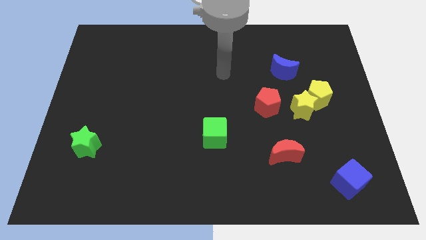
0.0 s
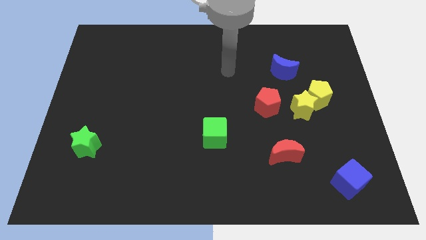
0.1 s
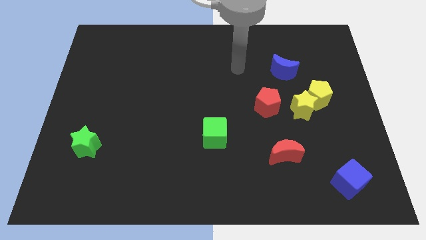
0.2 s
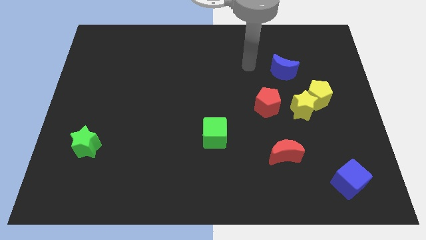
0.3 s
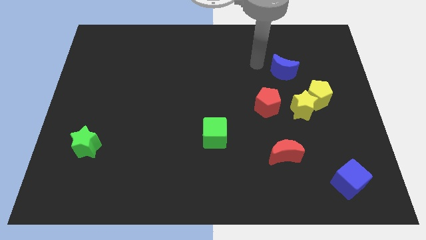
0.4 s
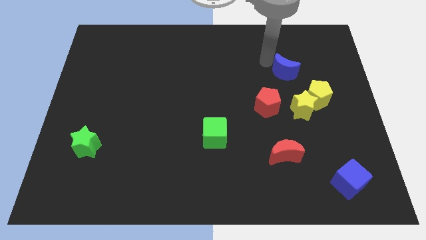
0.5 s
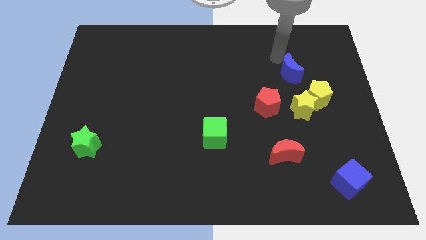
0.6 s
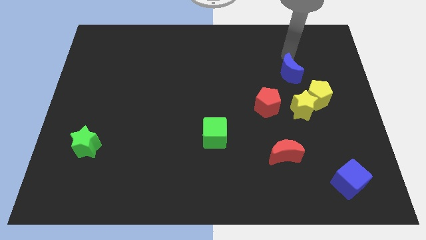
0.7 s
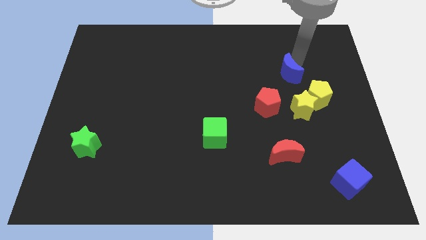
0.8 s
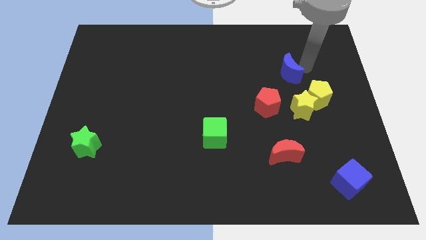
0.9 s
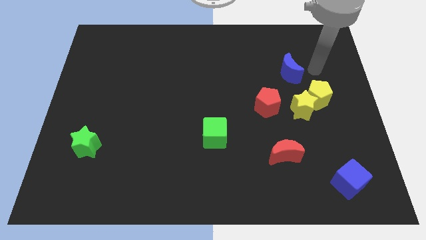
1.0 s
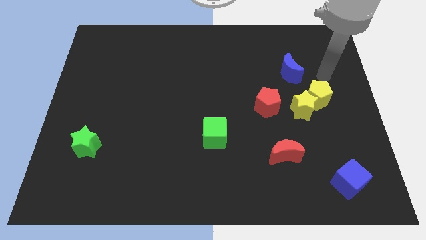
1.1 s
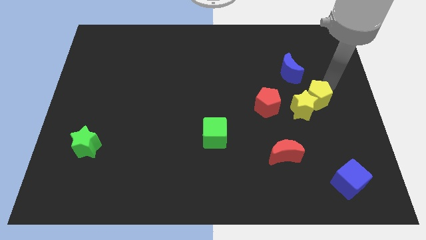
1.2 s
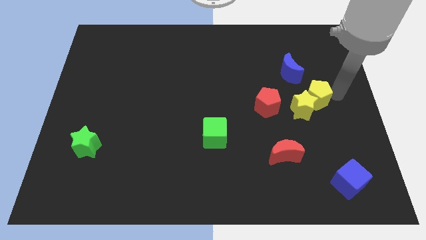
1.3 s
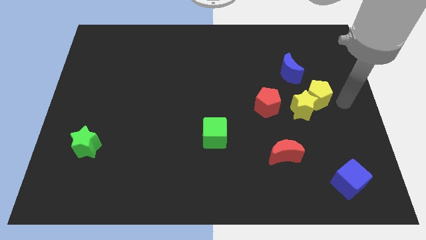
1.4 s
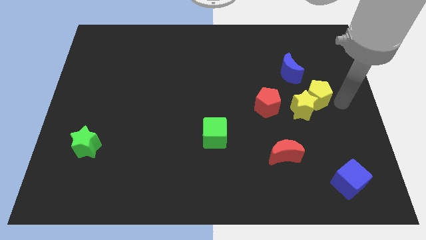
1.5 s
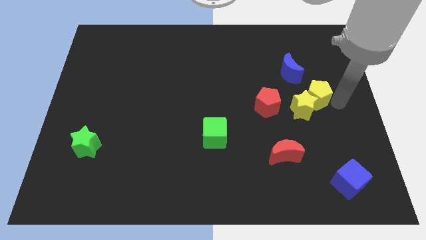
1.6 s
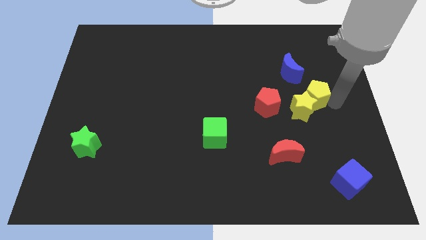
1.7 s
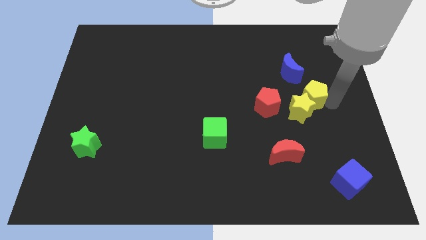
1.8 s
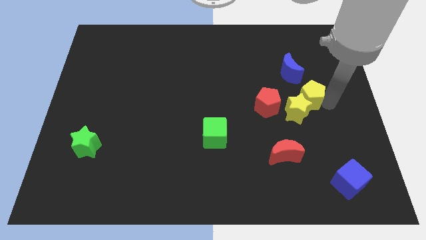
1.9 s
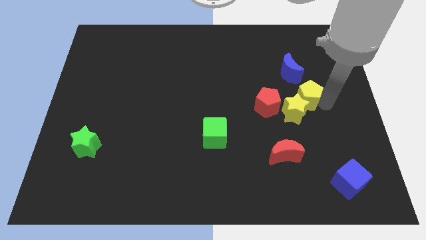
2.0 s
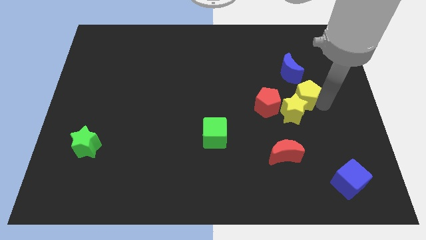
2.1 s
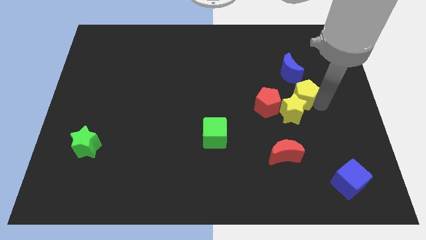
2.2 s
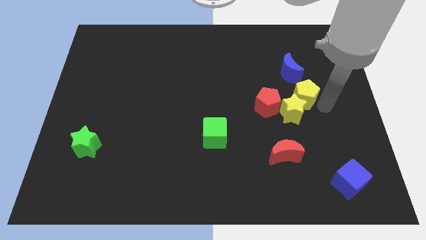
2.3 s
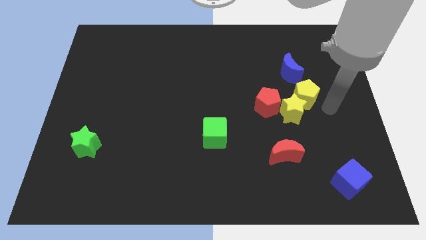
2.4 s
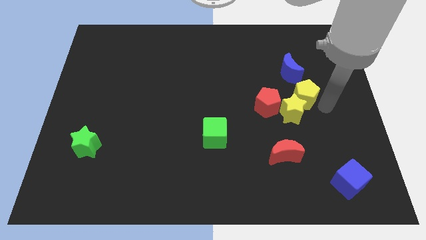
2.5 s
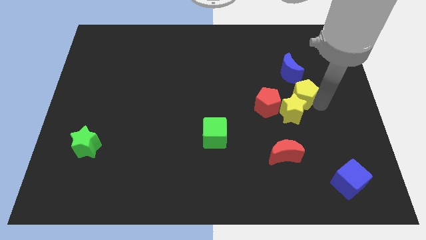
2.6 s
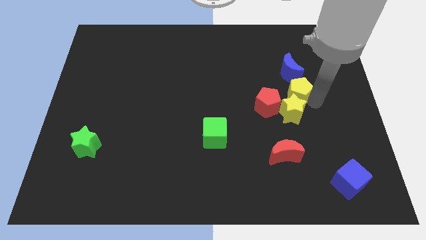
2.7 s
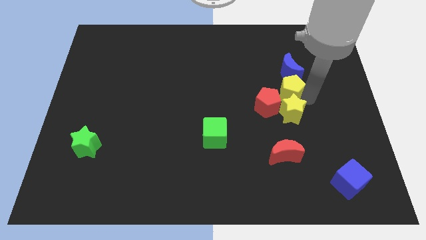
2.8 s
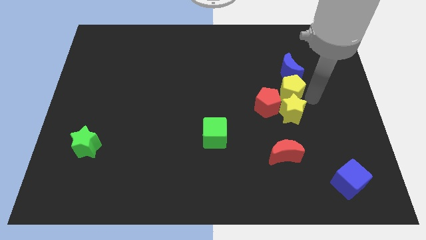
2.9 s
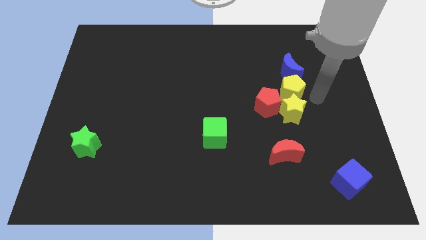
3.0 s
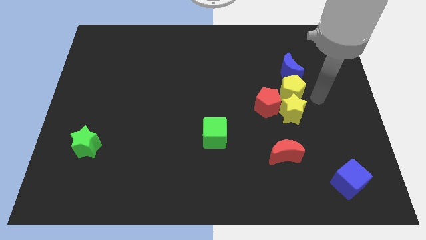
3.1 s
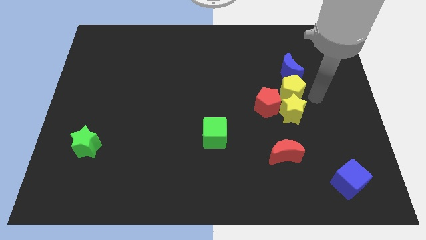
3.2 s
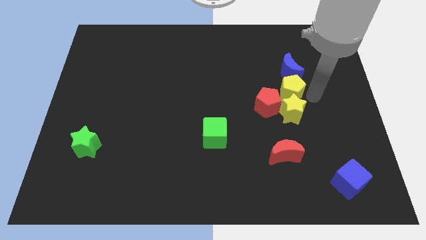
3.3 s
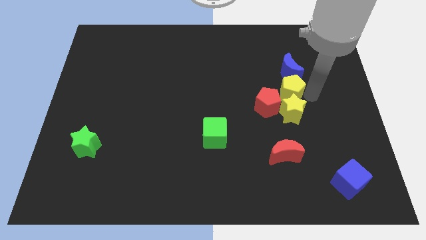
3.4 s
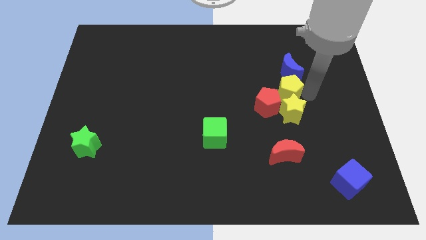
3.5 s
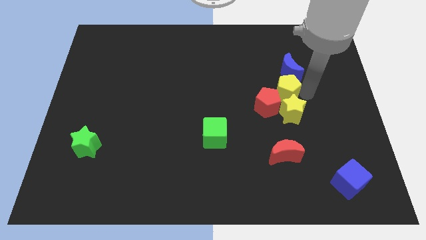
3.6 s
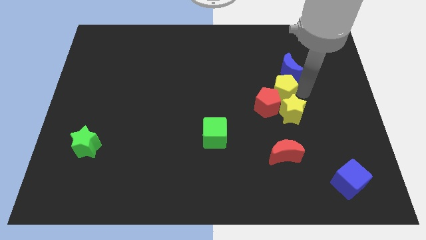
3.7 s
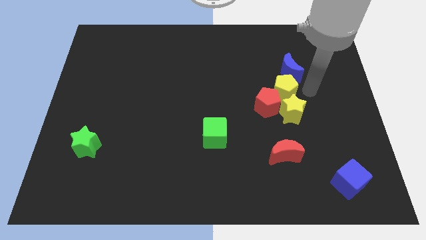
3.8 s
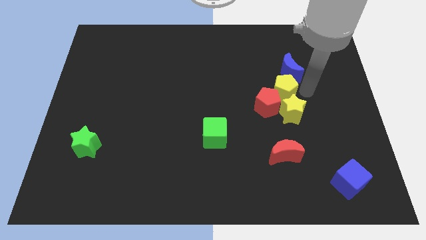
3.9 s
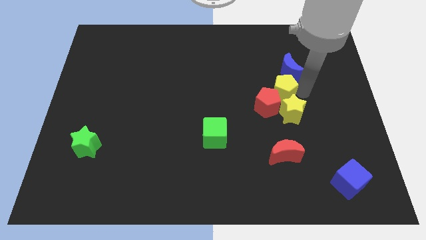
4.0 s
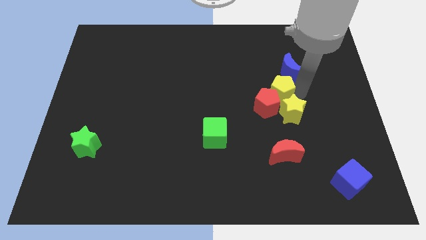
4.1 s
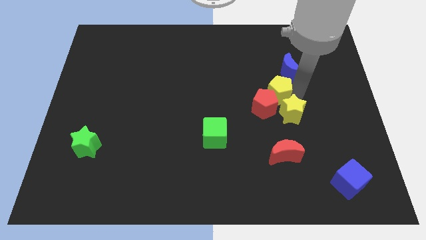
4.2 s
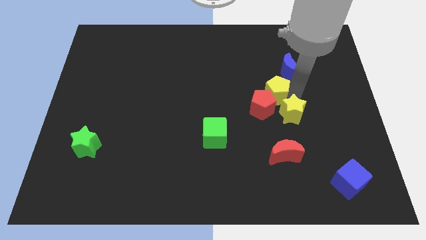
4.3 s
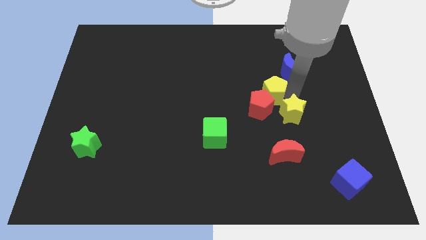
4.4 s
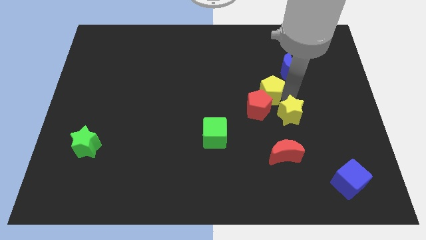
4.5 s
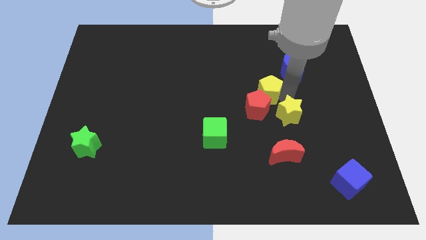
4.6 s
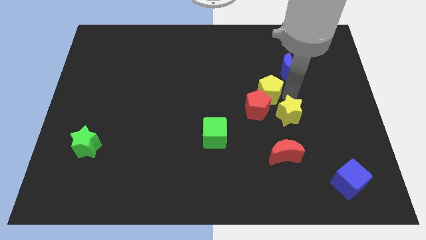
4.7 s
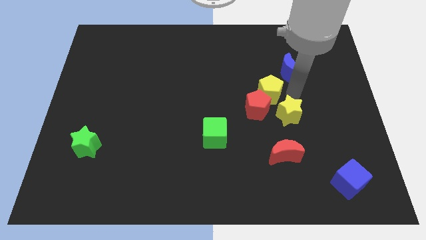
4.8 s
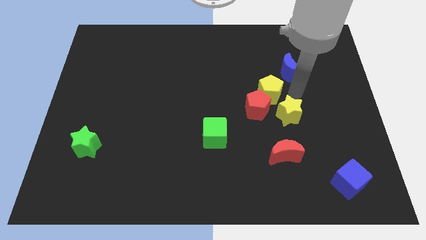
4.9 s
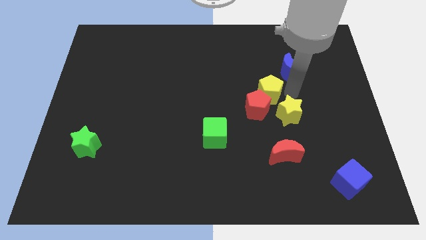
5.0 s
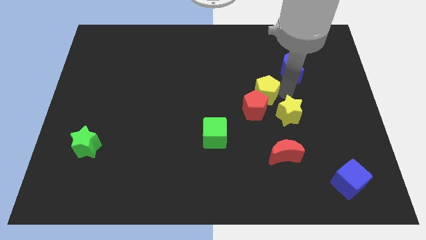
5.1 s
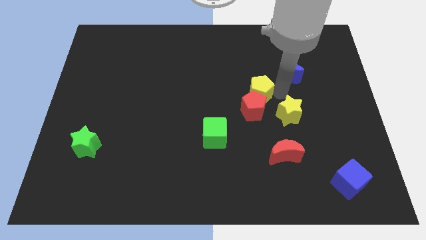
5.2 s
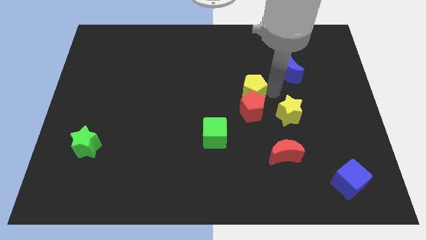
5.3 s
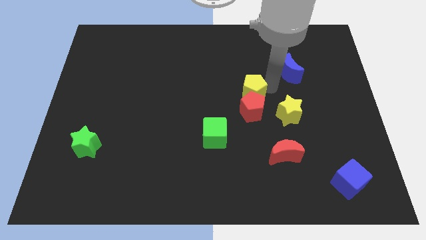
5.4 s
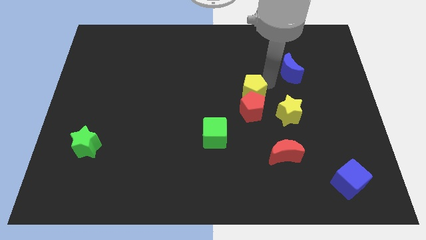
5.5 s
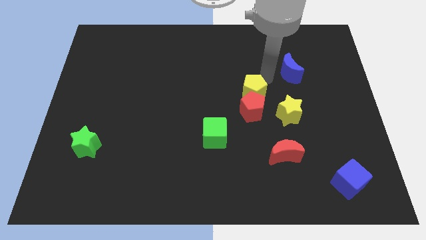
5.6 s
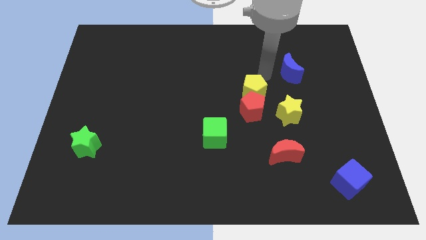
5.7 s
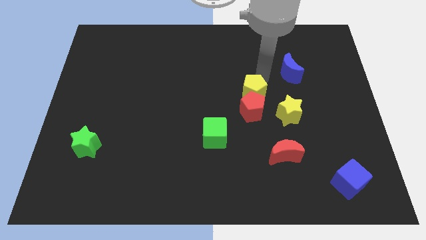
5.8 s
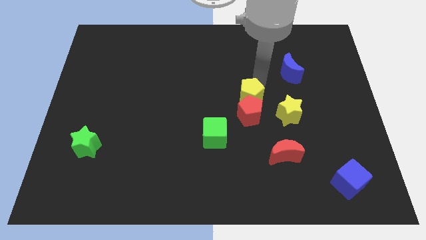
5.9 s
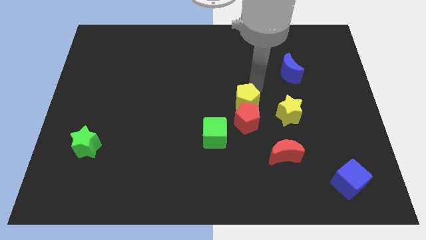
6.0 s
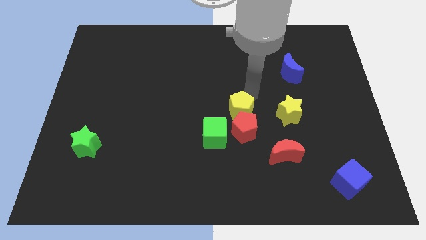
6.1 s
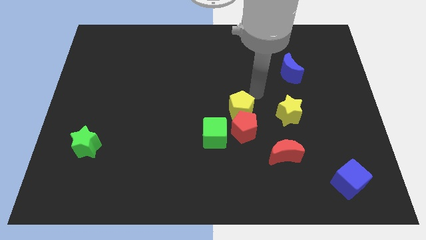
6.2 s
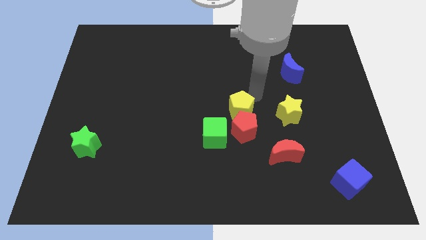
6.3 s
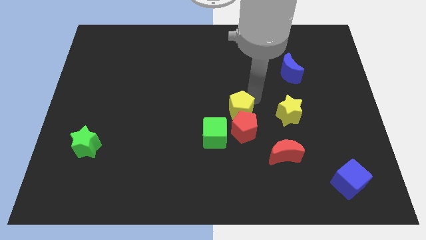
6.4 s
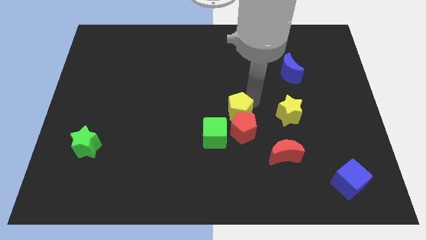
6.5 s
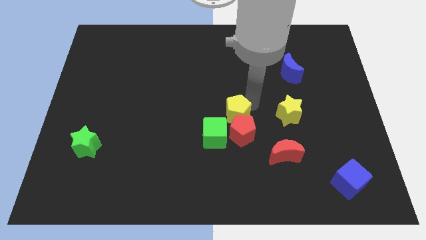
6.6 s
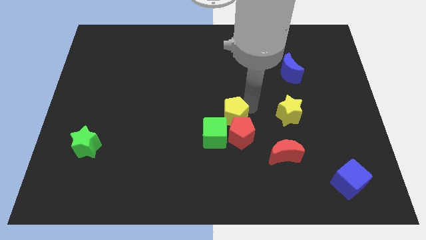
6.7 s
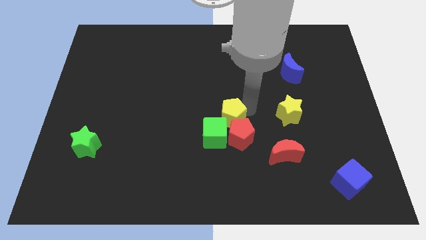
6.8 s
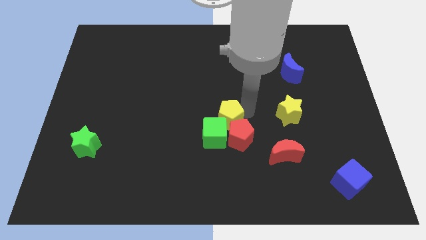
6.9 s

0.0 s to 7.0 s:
push the yellow pentagon close to the green cube

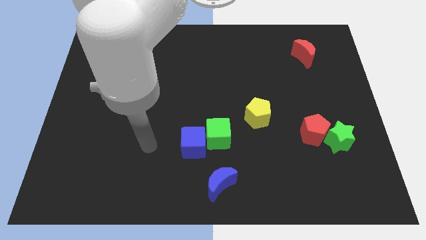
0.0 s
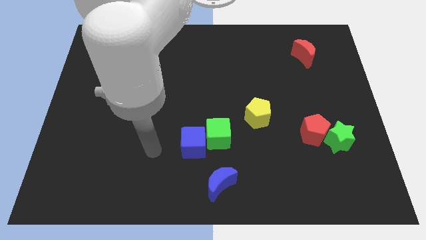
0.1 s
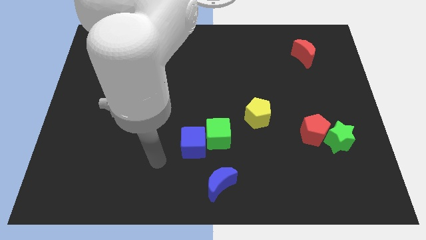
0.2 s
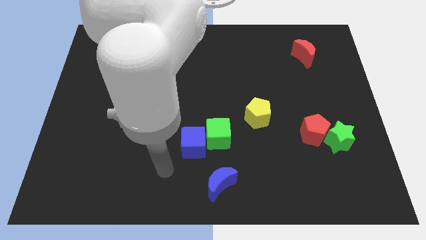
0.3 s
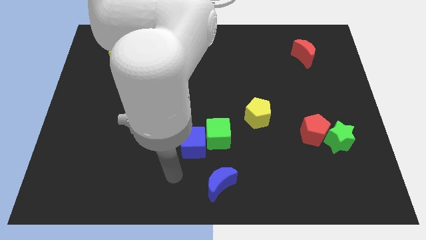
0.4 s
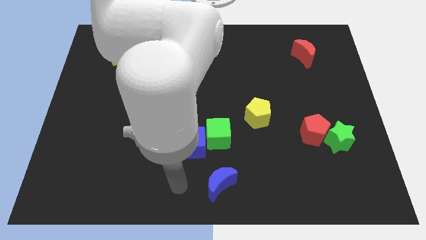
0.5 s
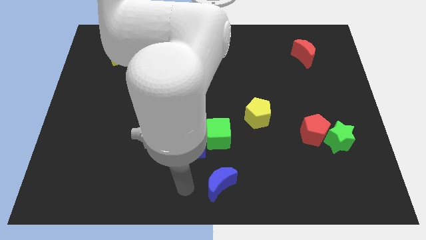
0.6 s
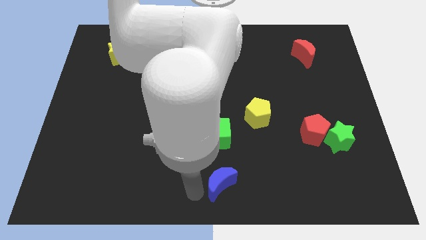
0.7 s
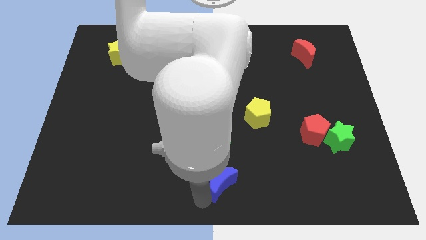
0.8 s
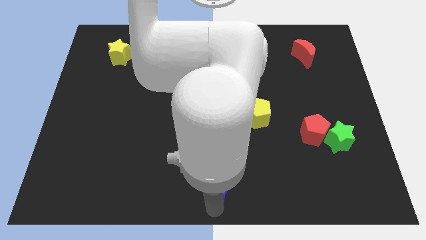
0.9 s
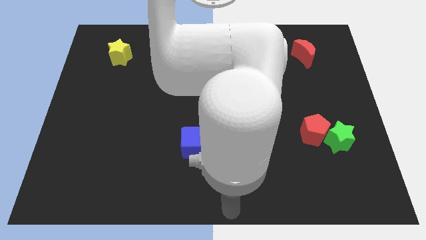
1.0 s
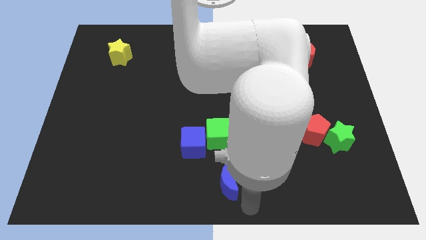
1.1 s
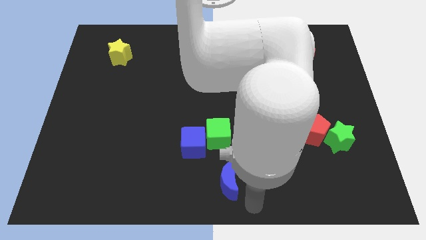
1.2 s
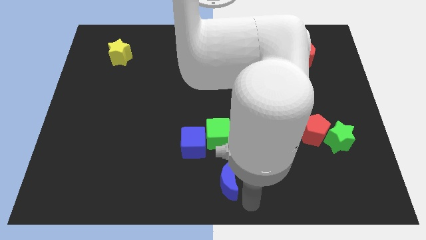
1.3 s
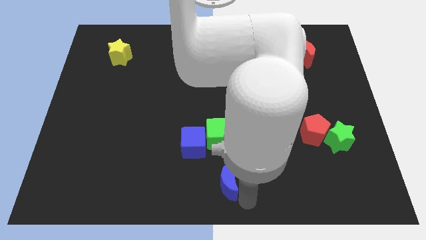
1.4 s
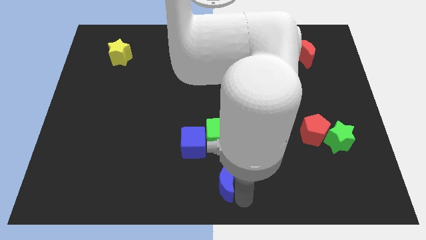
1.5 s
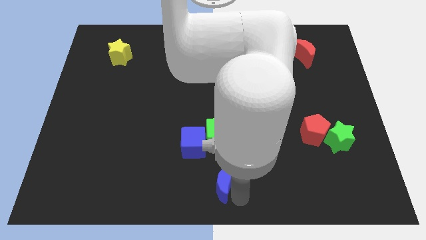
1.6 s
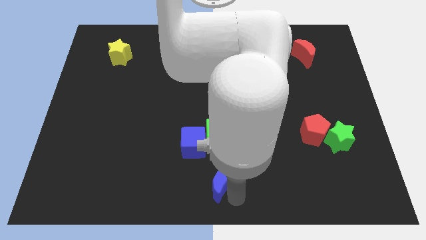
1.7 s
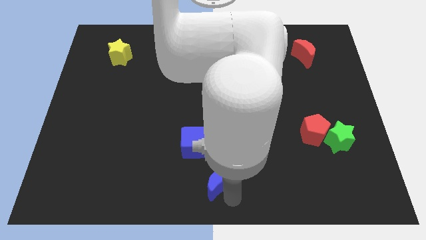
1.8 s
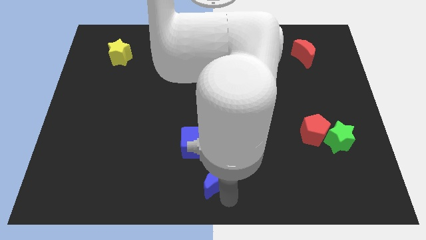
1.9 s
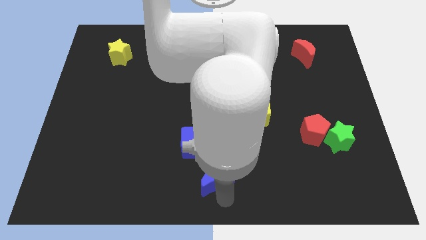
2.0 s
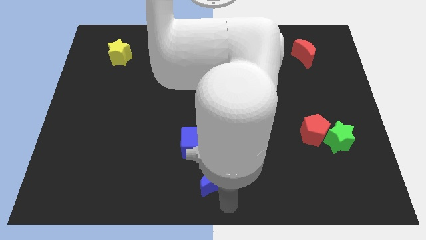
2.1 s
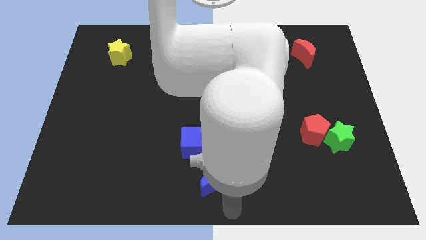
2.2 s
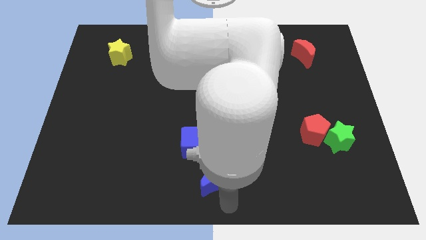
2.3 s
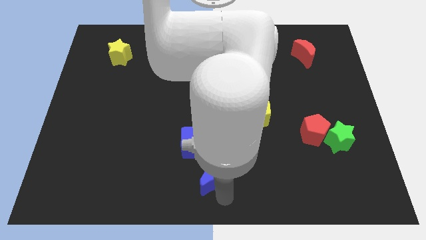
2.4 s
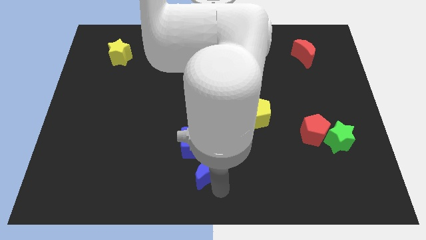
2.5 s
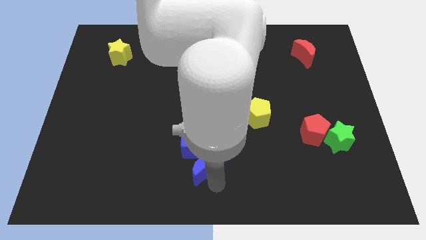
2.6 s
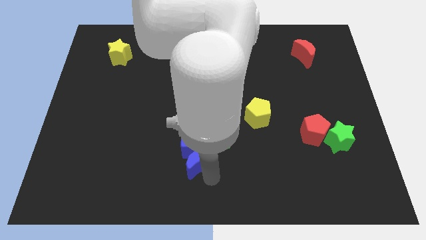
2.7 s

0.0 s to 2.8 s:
move the blue moon to the blue cube
